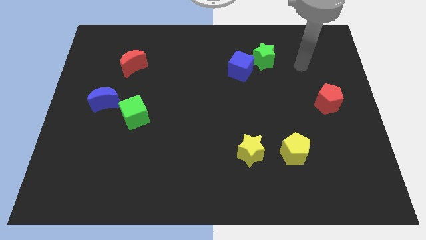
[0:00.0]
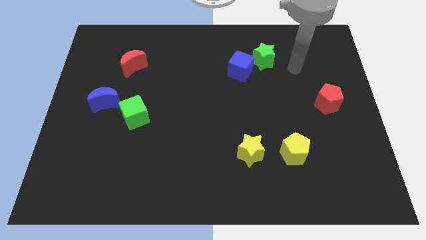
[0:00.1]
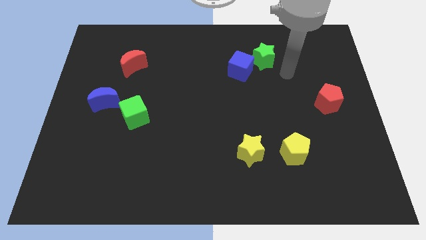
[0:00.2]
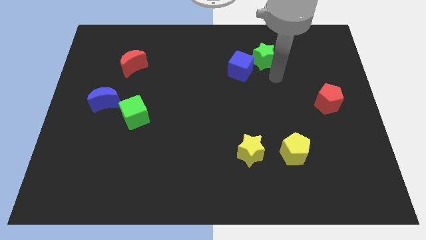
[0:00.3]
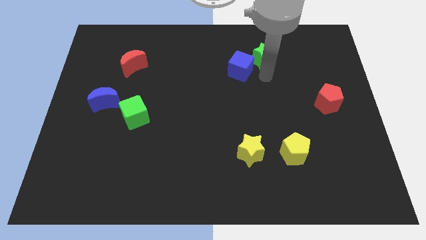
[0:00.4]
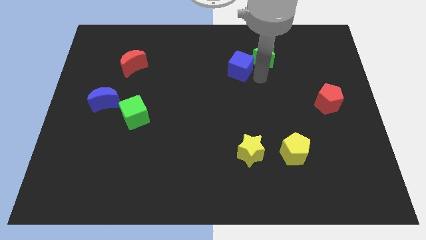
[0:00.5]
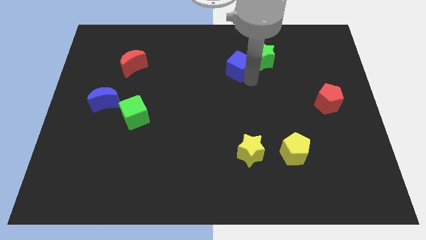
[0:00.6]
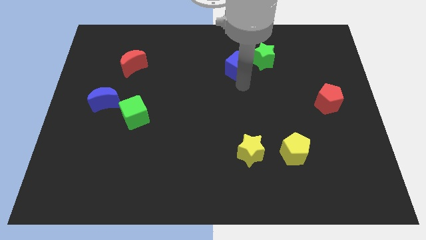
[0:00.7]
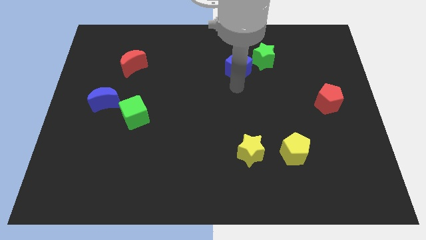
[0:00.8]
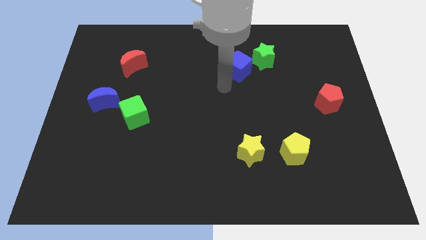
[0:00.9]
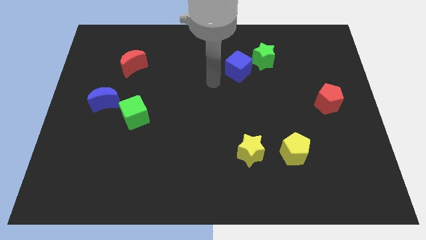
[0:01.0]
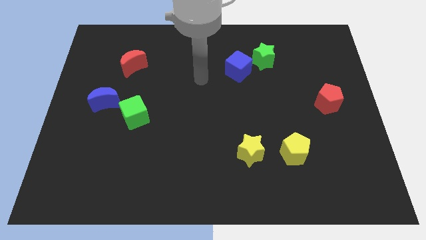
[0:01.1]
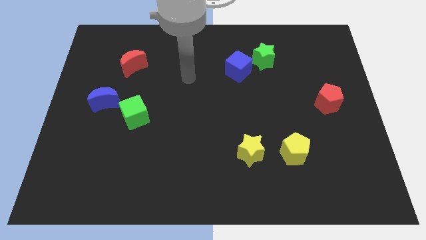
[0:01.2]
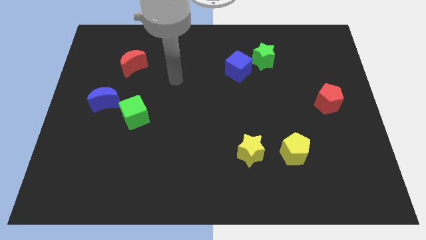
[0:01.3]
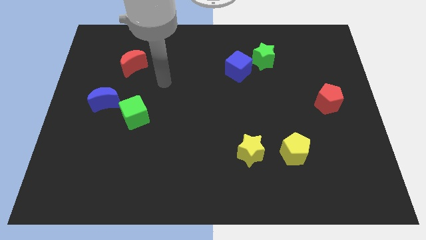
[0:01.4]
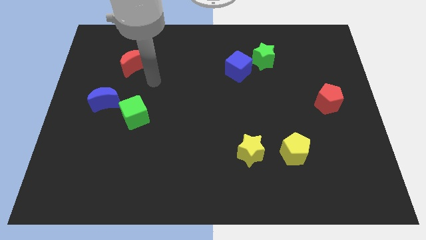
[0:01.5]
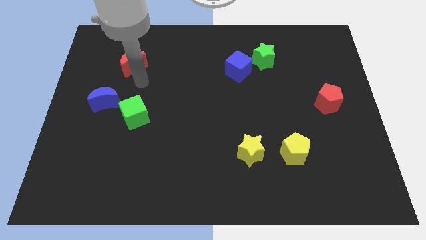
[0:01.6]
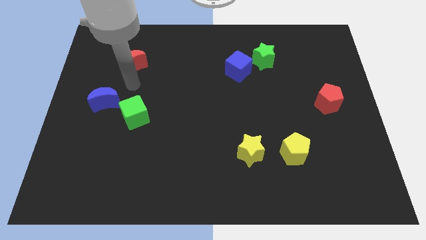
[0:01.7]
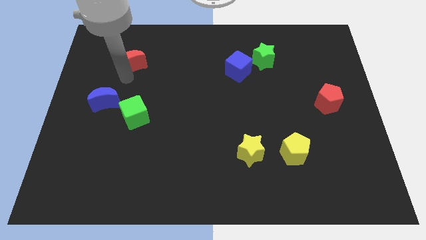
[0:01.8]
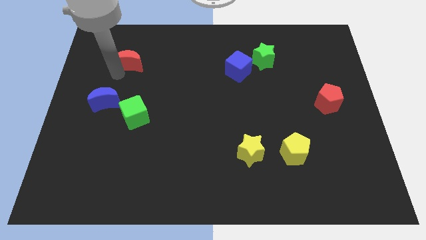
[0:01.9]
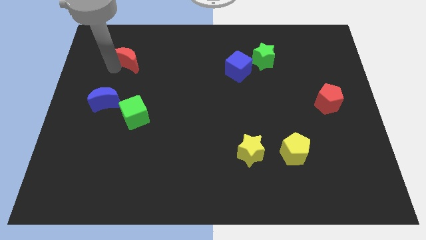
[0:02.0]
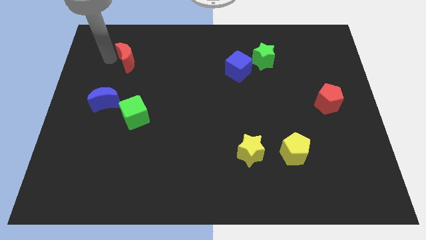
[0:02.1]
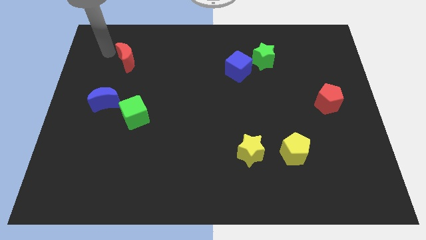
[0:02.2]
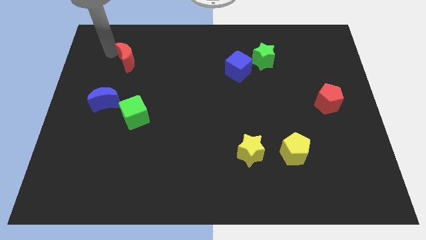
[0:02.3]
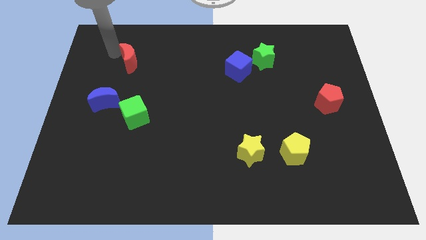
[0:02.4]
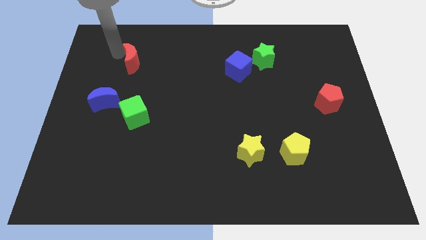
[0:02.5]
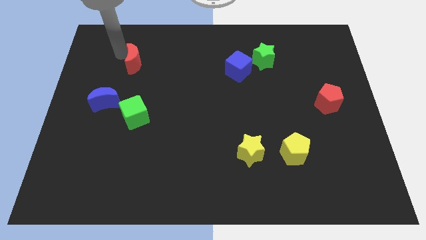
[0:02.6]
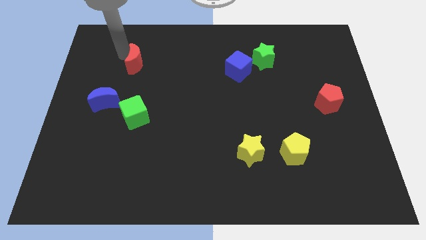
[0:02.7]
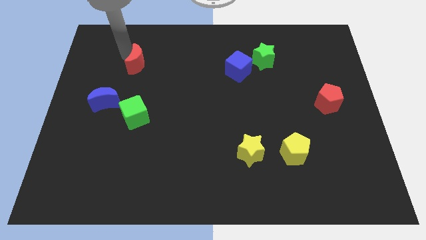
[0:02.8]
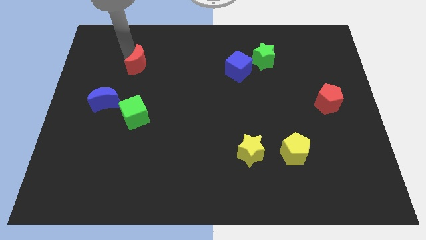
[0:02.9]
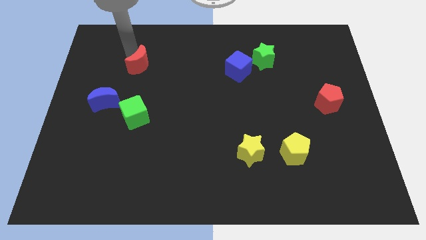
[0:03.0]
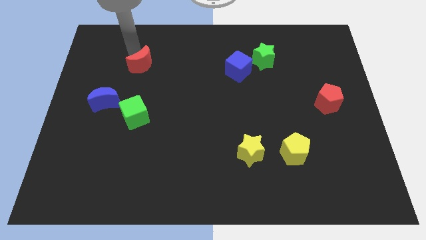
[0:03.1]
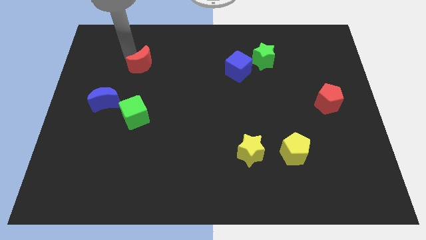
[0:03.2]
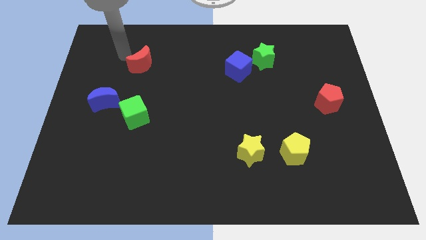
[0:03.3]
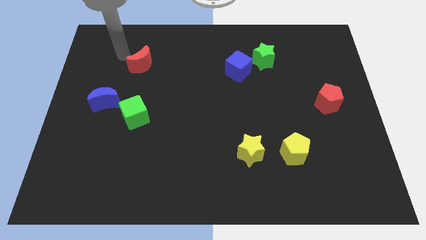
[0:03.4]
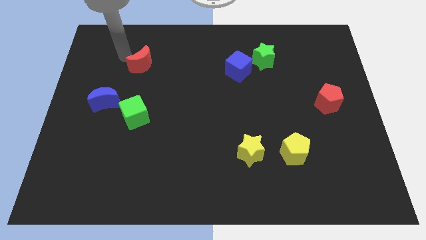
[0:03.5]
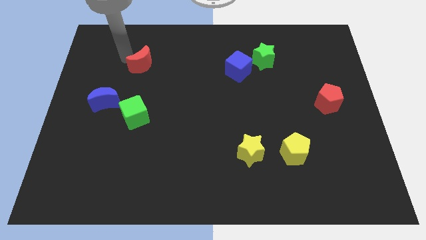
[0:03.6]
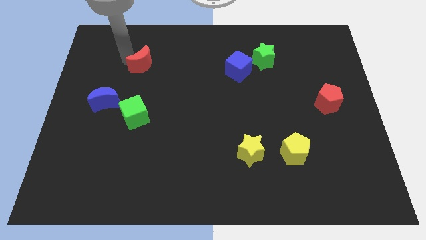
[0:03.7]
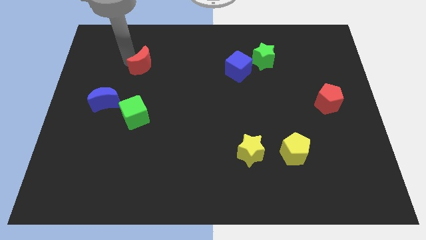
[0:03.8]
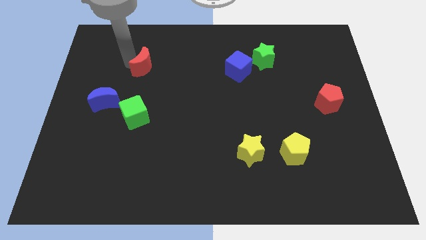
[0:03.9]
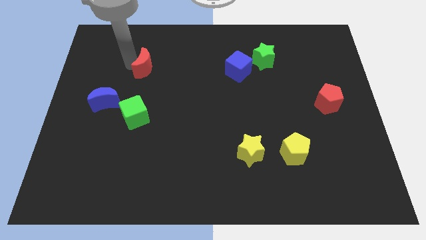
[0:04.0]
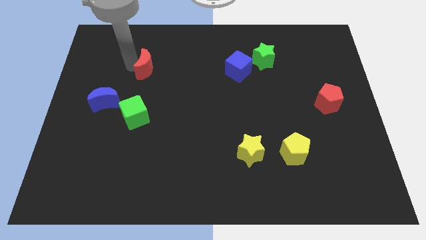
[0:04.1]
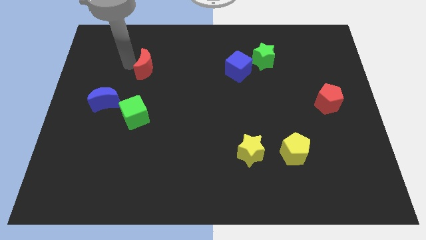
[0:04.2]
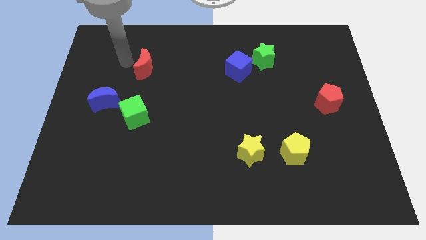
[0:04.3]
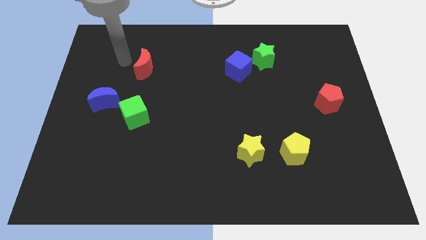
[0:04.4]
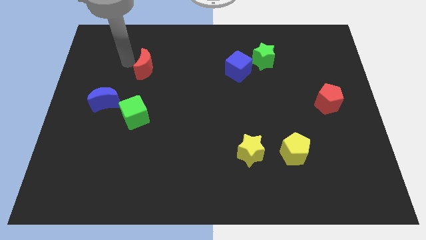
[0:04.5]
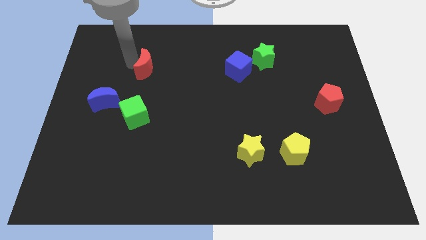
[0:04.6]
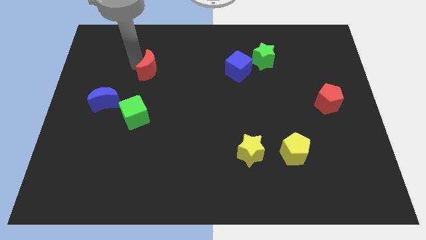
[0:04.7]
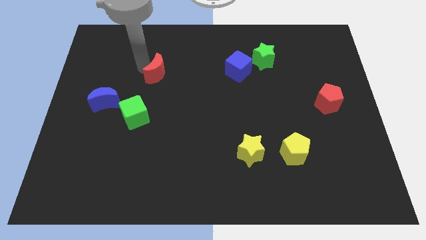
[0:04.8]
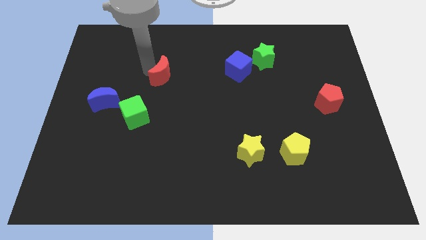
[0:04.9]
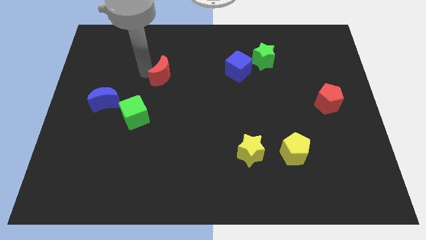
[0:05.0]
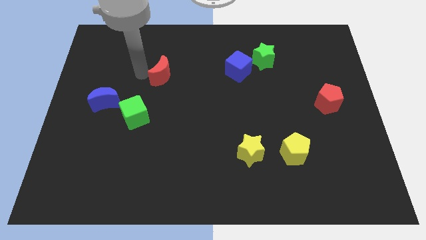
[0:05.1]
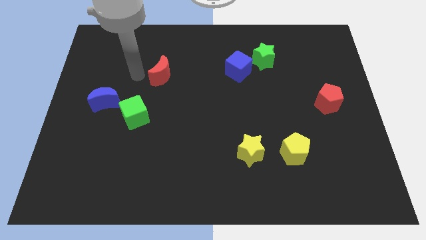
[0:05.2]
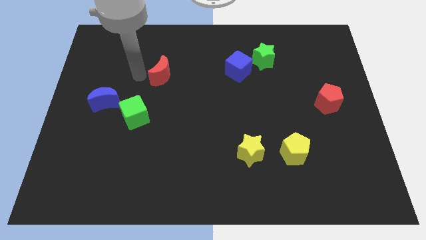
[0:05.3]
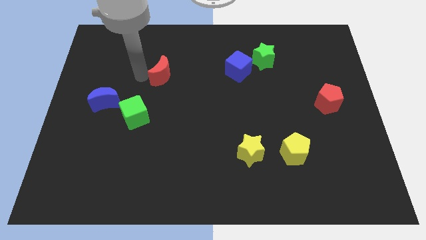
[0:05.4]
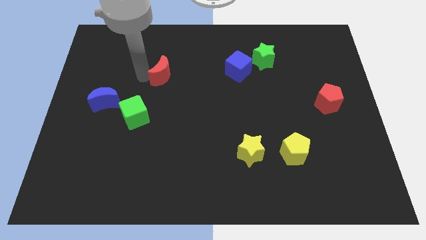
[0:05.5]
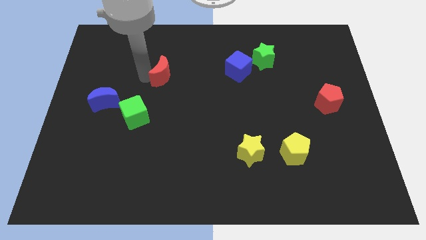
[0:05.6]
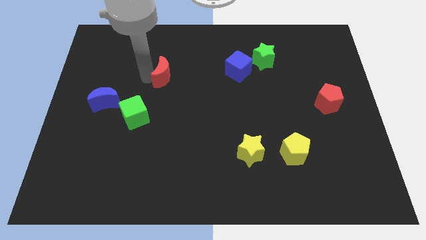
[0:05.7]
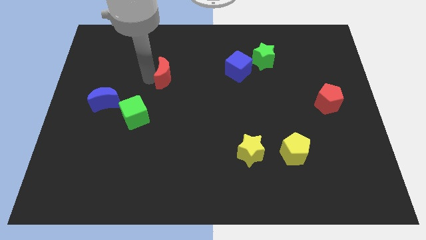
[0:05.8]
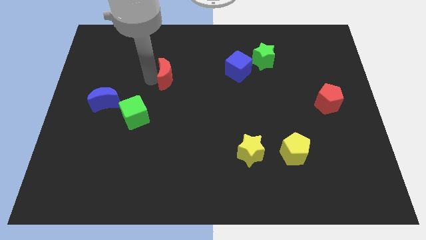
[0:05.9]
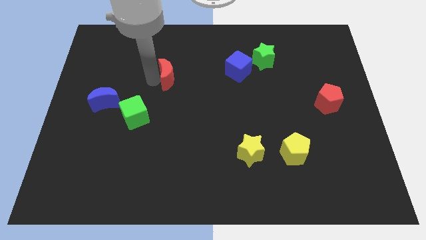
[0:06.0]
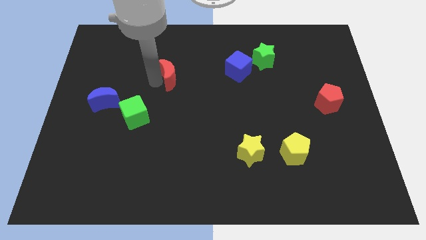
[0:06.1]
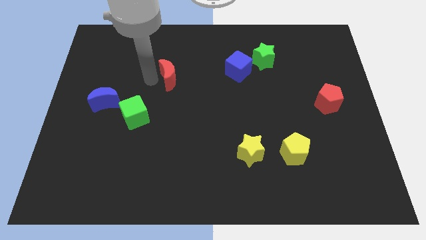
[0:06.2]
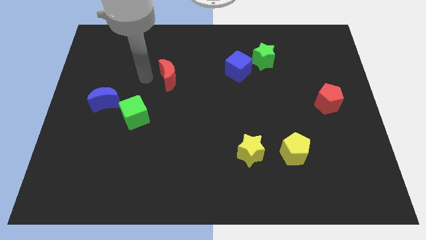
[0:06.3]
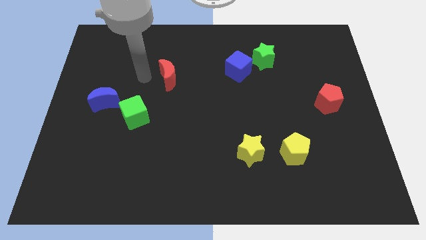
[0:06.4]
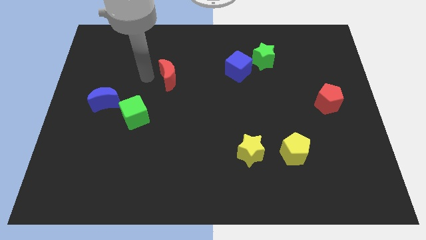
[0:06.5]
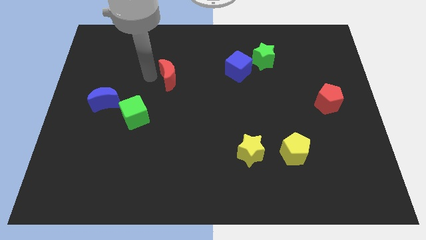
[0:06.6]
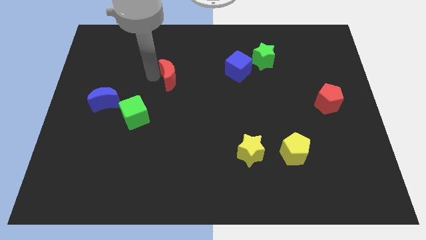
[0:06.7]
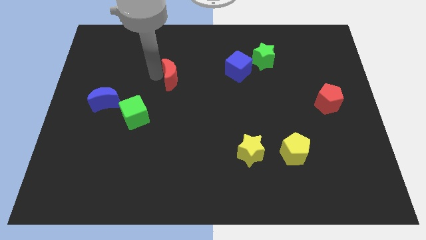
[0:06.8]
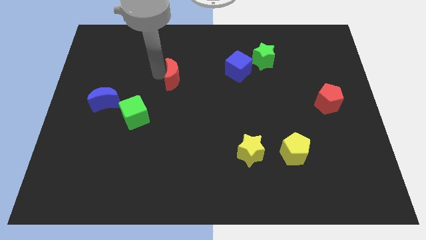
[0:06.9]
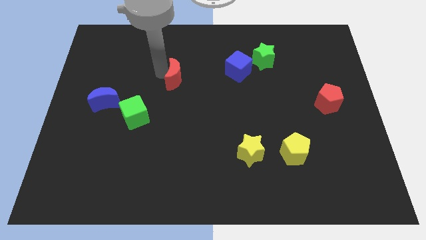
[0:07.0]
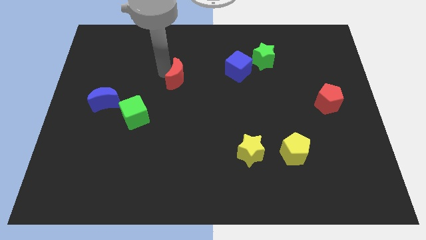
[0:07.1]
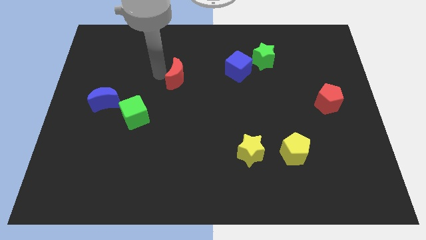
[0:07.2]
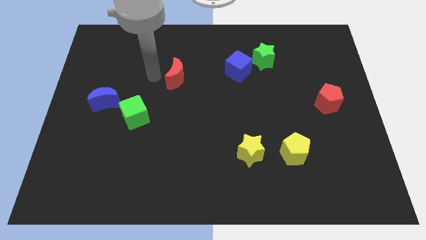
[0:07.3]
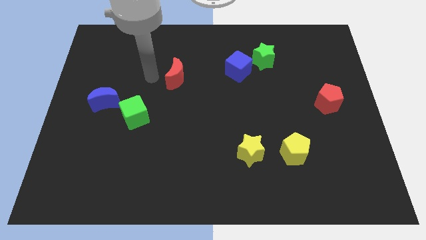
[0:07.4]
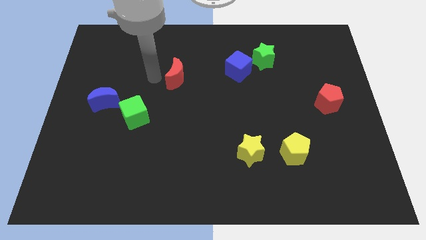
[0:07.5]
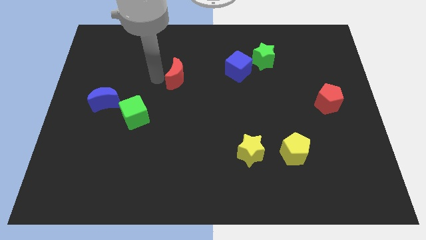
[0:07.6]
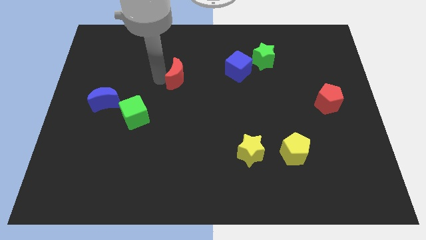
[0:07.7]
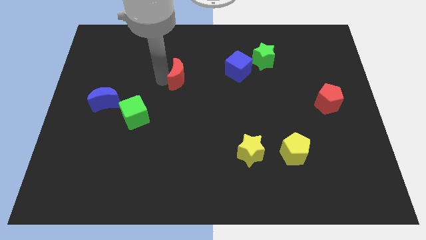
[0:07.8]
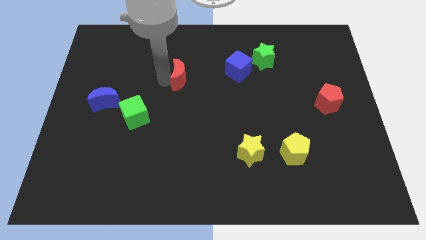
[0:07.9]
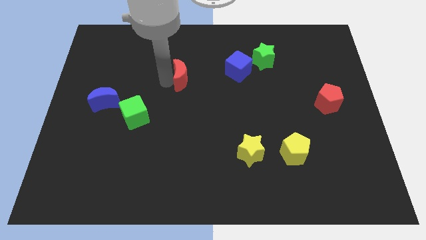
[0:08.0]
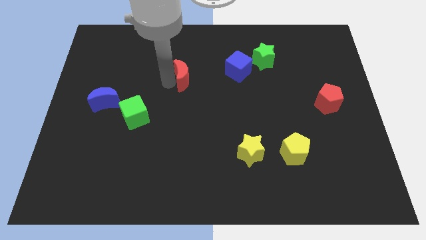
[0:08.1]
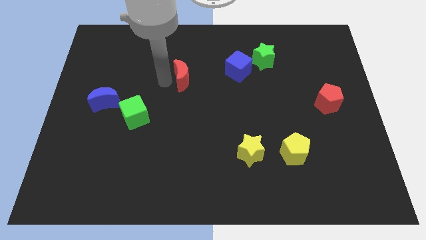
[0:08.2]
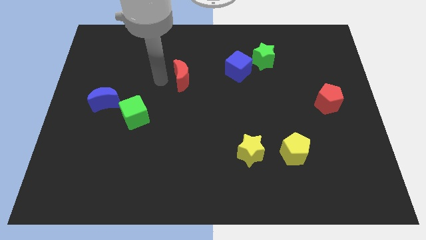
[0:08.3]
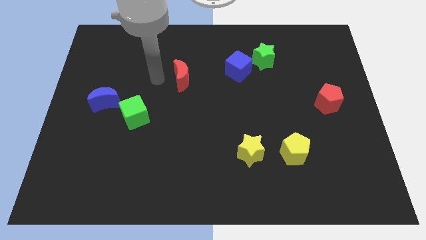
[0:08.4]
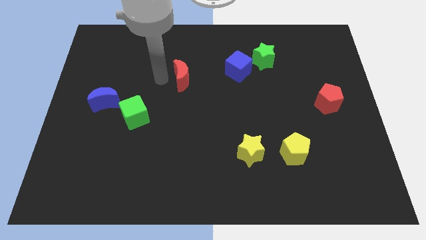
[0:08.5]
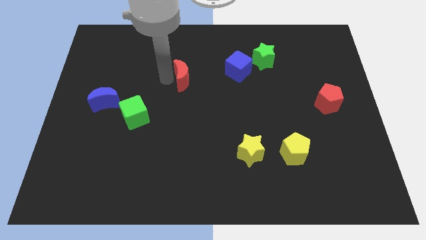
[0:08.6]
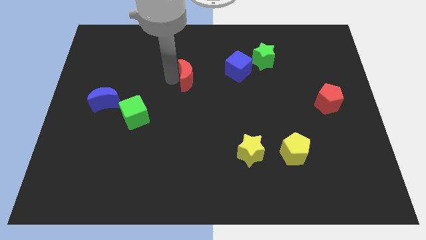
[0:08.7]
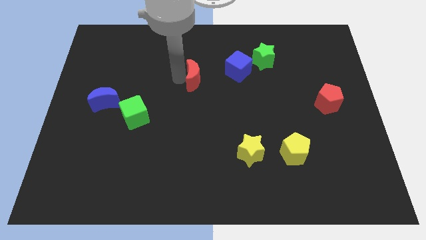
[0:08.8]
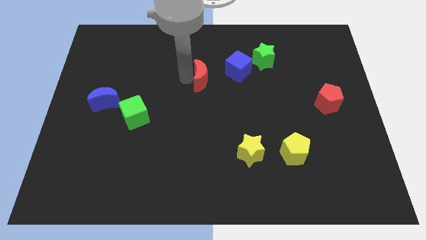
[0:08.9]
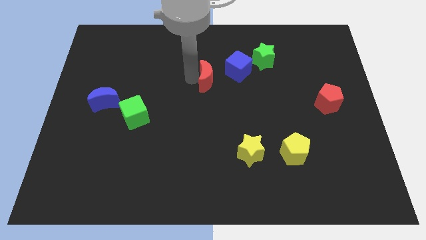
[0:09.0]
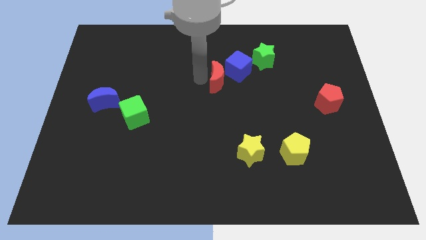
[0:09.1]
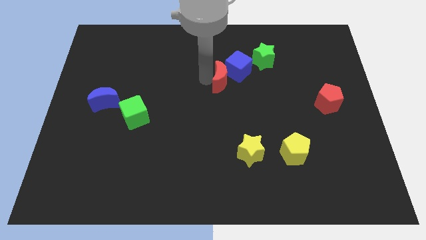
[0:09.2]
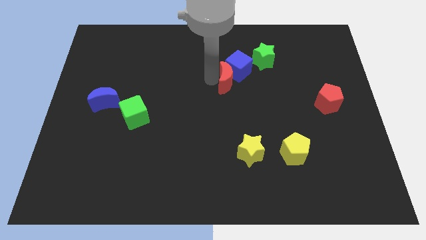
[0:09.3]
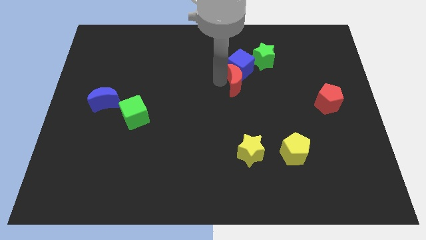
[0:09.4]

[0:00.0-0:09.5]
move the red moon to the bottom right side of the blue cube
